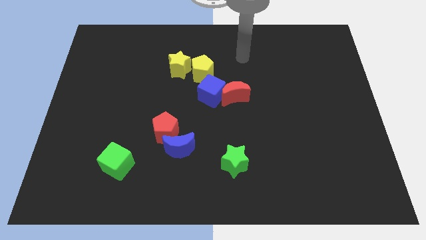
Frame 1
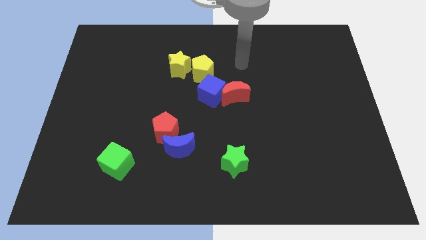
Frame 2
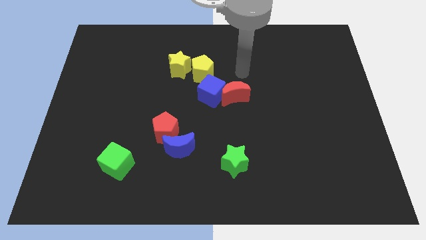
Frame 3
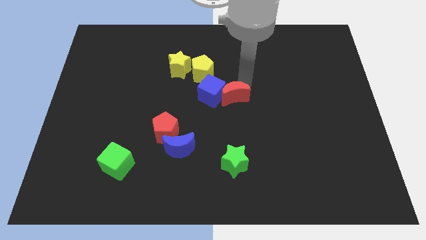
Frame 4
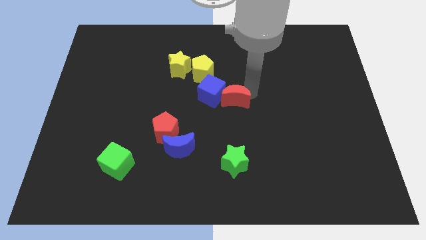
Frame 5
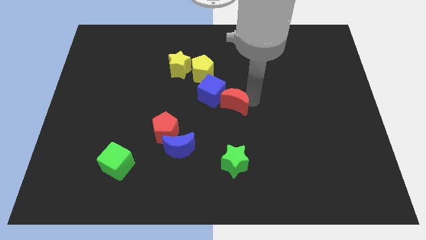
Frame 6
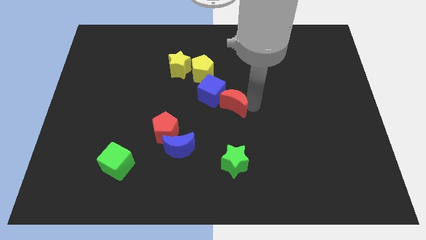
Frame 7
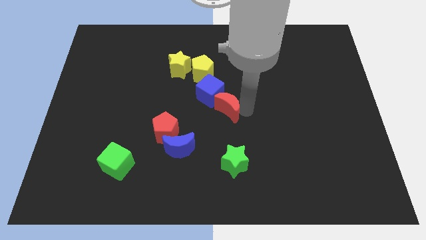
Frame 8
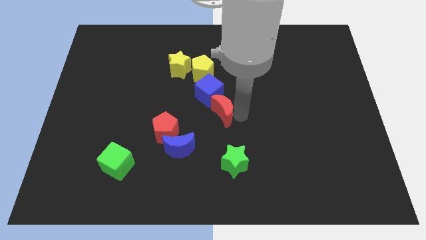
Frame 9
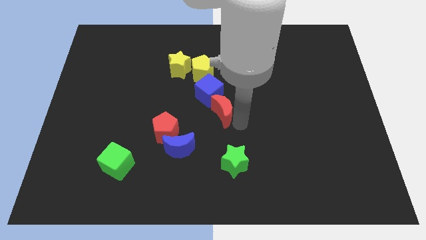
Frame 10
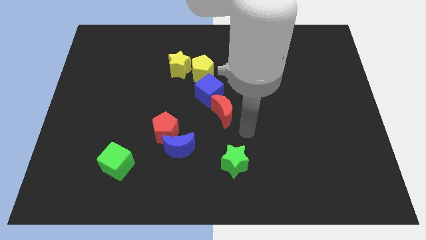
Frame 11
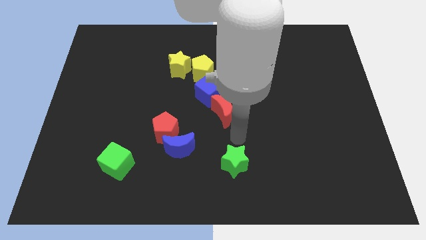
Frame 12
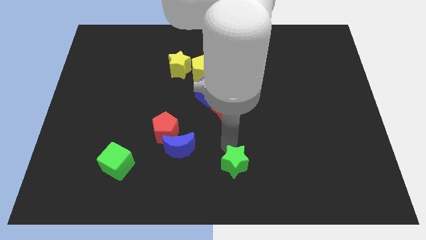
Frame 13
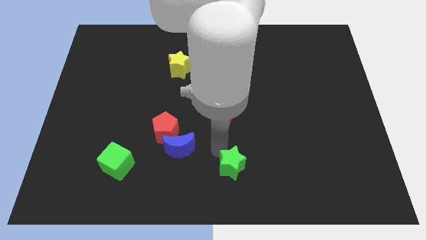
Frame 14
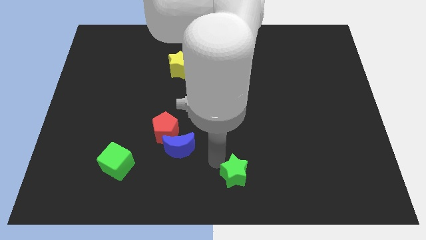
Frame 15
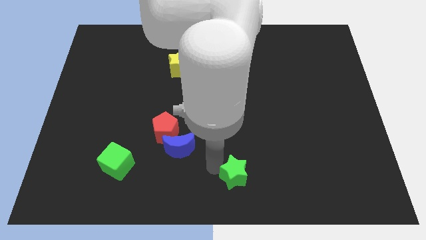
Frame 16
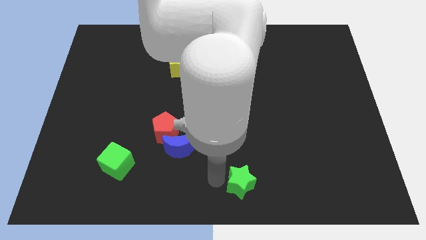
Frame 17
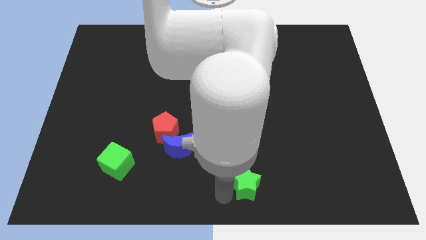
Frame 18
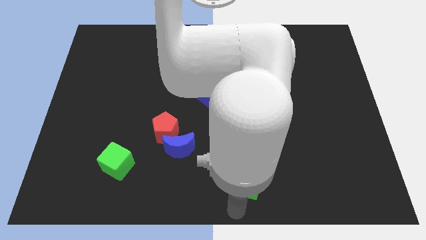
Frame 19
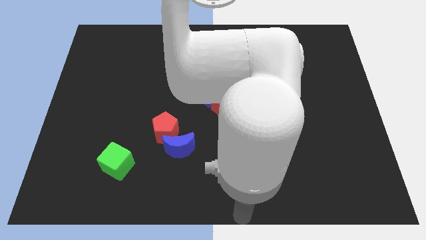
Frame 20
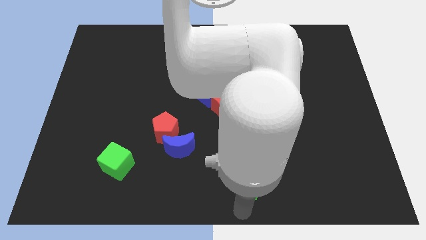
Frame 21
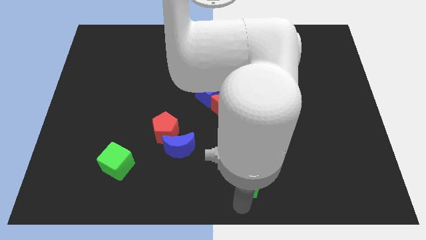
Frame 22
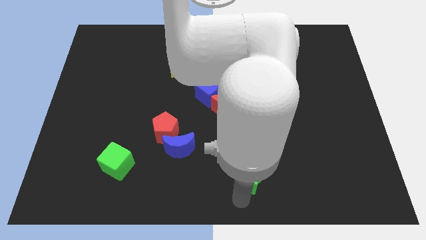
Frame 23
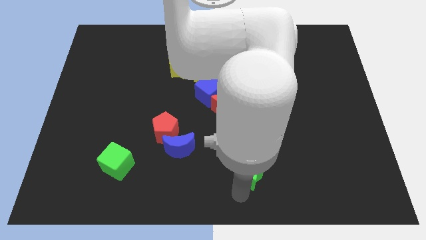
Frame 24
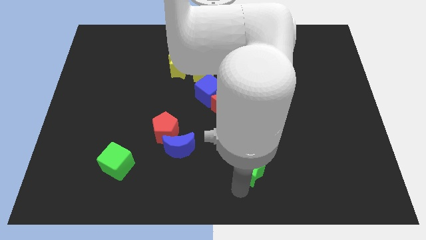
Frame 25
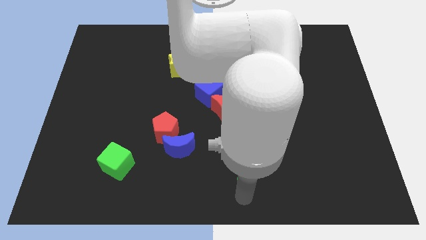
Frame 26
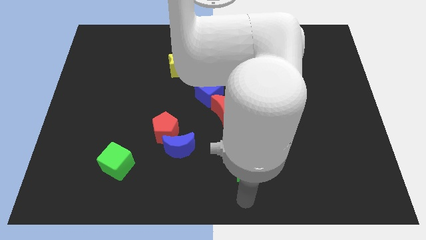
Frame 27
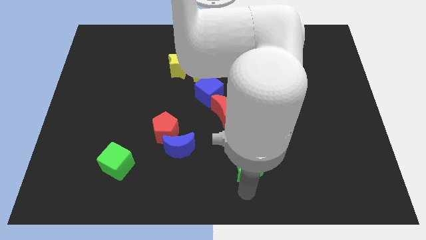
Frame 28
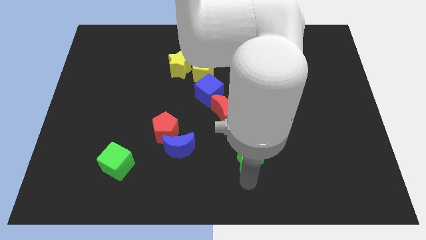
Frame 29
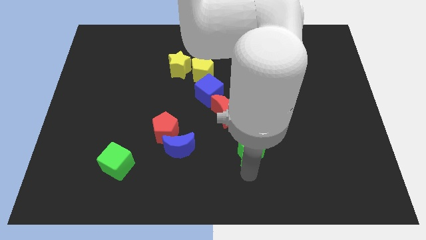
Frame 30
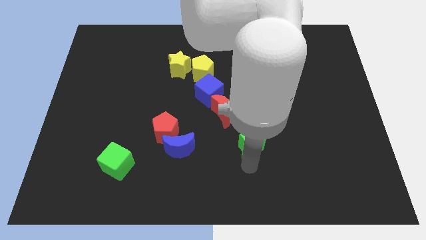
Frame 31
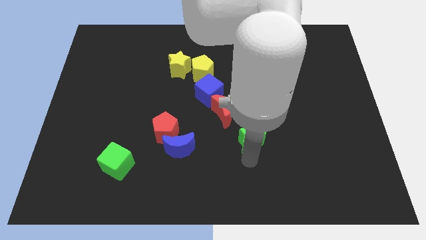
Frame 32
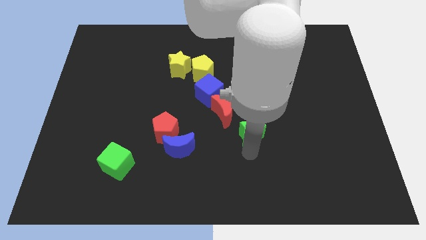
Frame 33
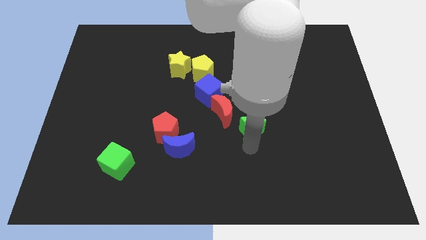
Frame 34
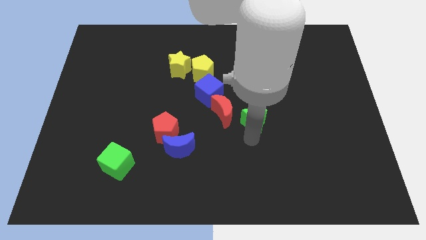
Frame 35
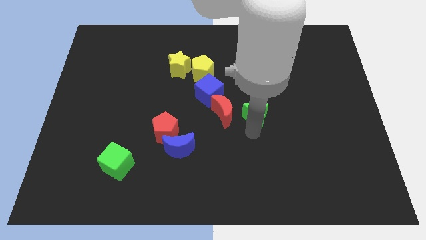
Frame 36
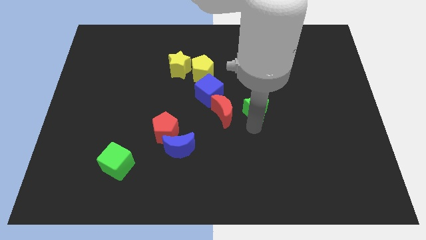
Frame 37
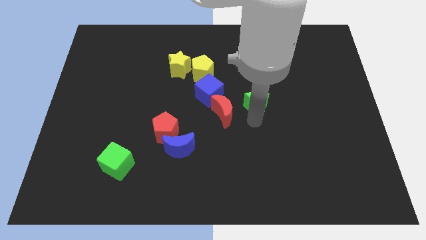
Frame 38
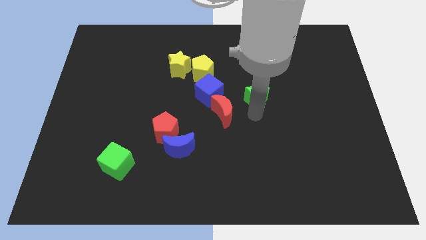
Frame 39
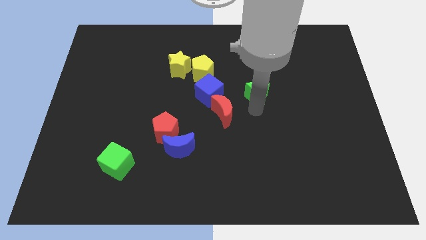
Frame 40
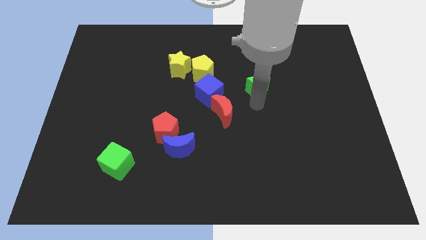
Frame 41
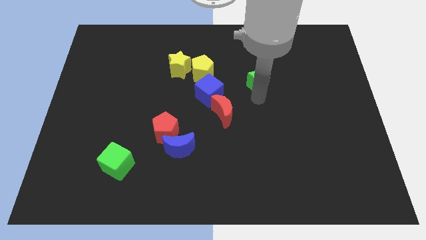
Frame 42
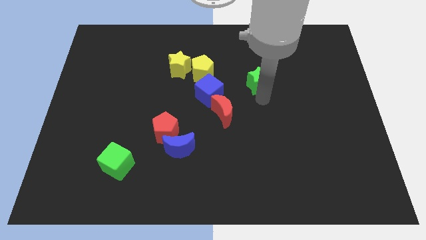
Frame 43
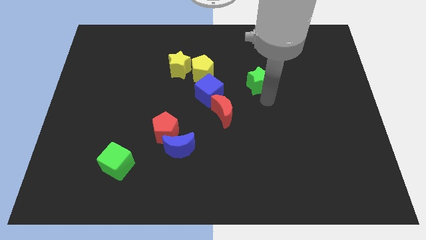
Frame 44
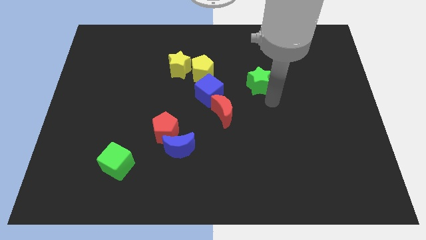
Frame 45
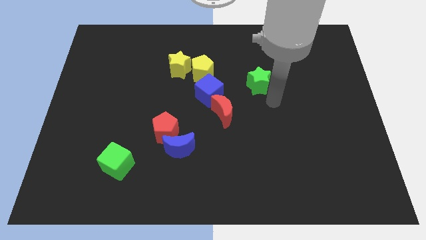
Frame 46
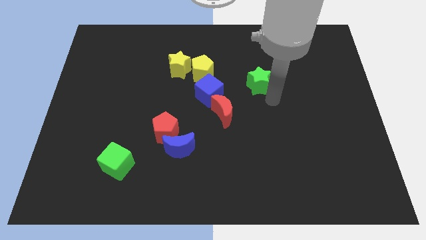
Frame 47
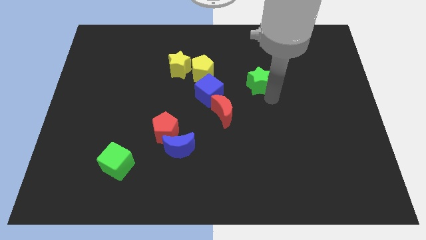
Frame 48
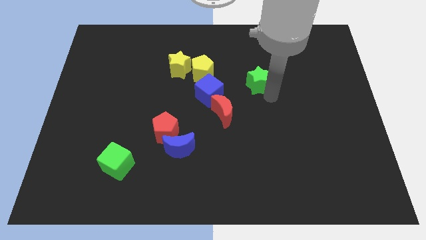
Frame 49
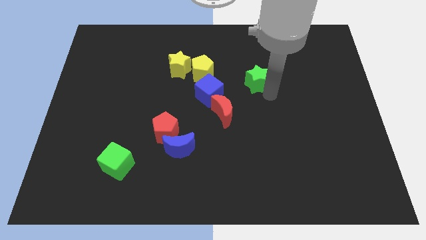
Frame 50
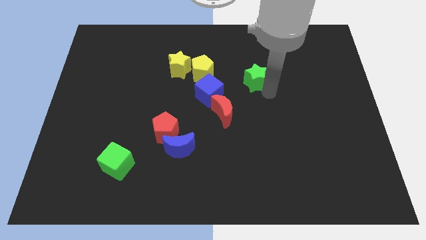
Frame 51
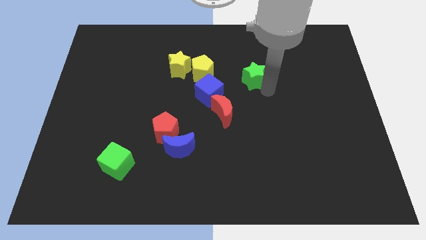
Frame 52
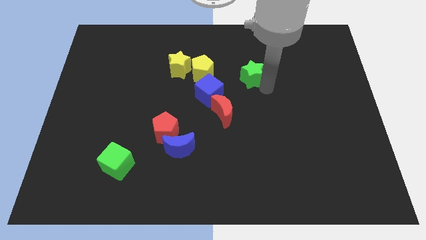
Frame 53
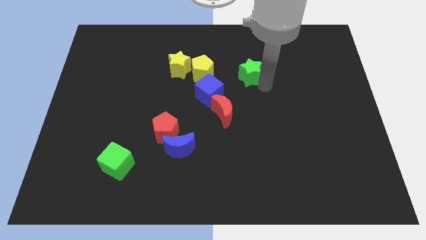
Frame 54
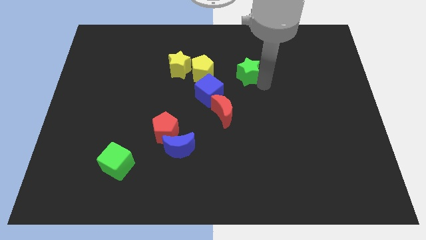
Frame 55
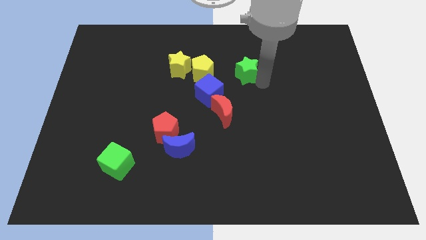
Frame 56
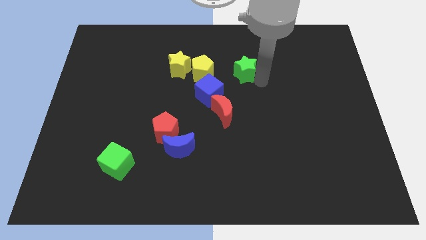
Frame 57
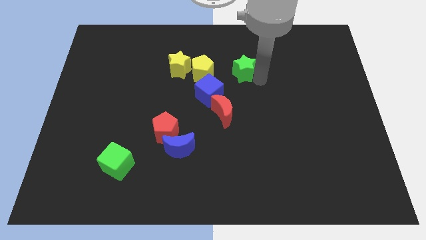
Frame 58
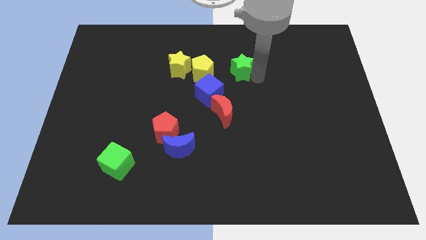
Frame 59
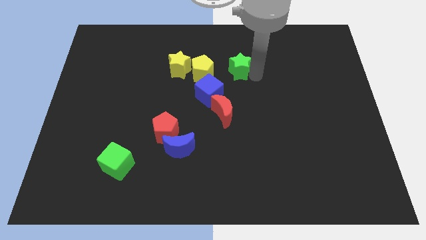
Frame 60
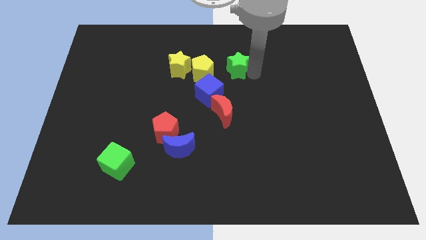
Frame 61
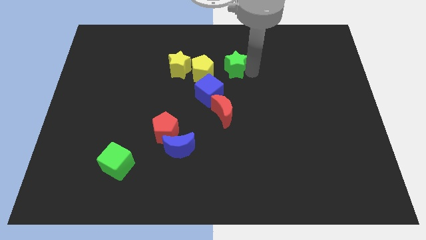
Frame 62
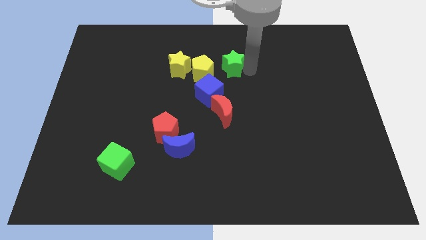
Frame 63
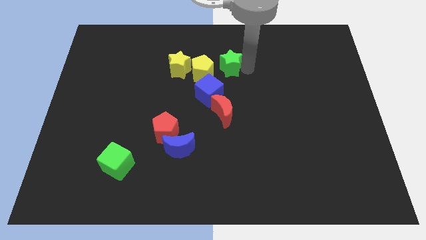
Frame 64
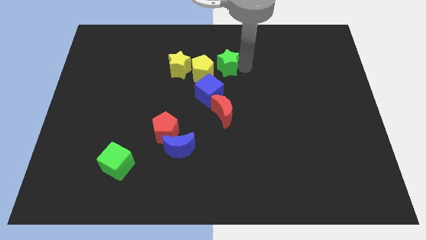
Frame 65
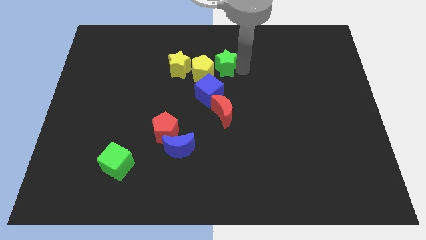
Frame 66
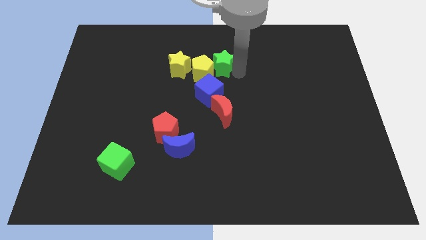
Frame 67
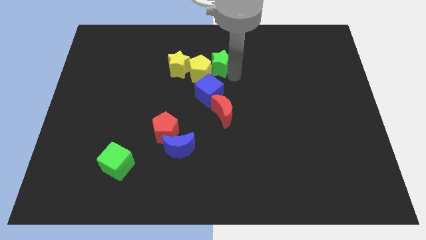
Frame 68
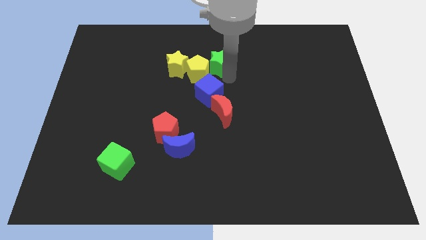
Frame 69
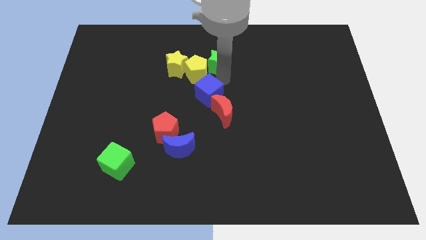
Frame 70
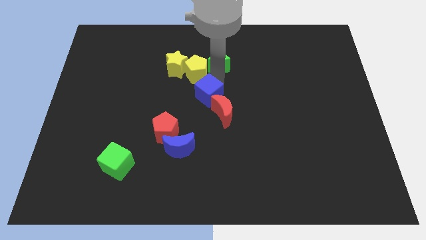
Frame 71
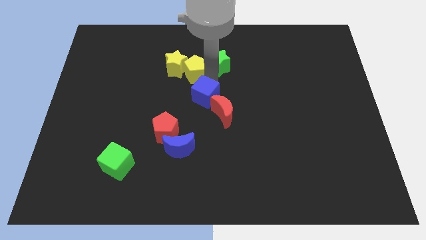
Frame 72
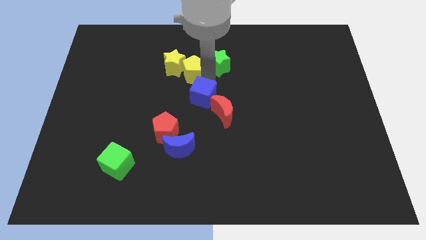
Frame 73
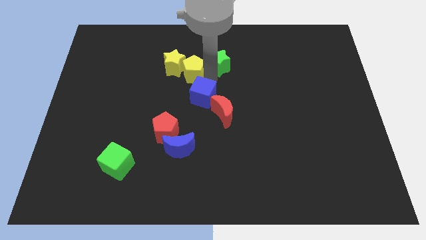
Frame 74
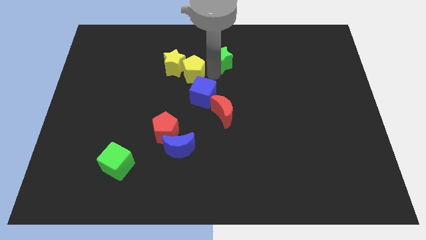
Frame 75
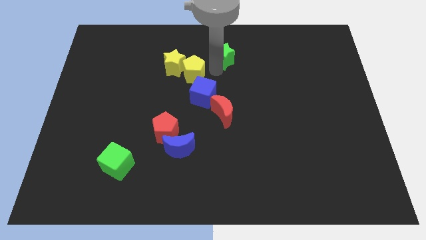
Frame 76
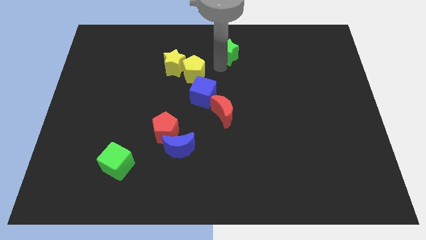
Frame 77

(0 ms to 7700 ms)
move the green star to the top side
